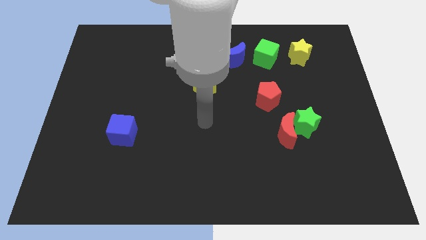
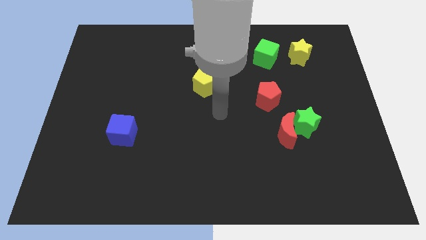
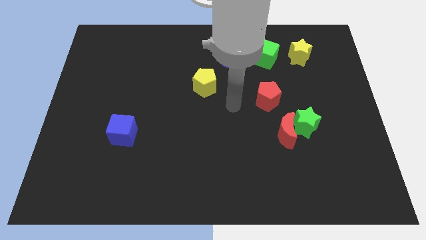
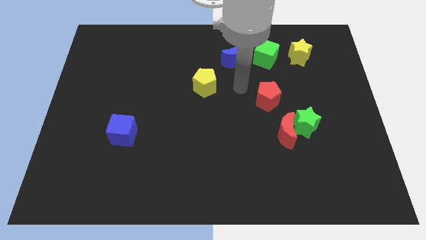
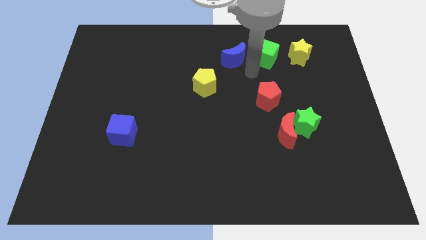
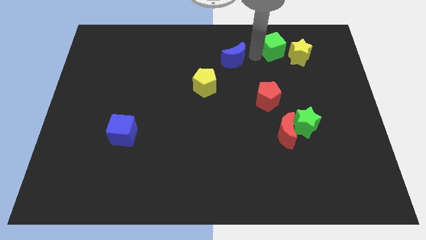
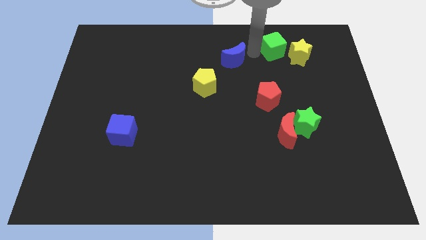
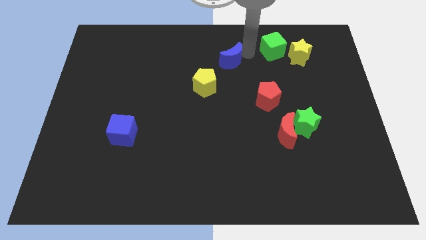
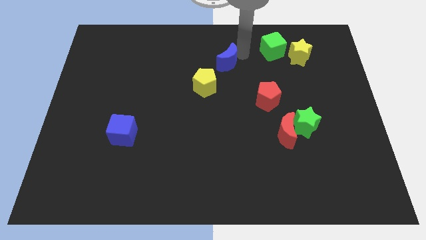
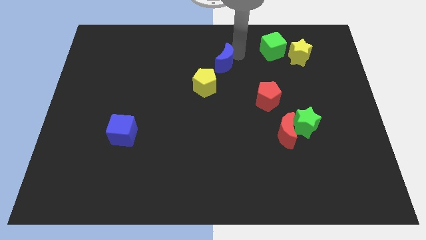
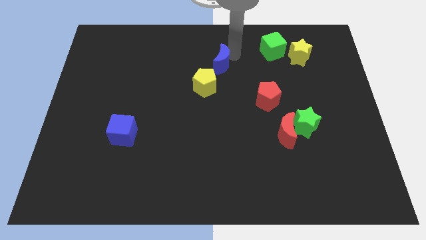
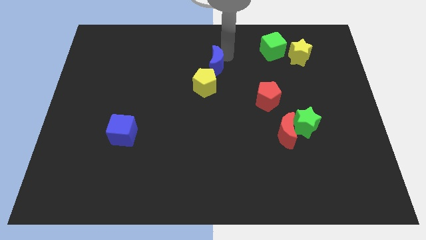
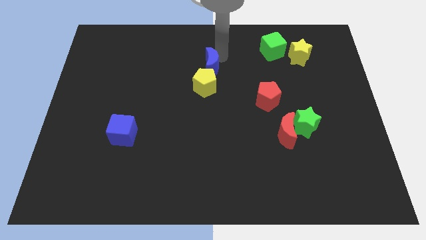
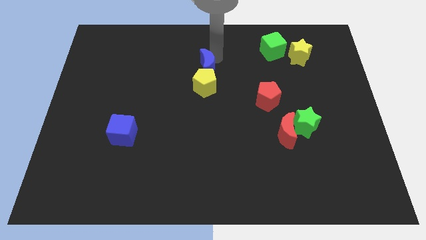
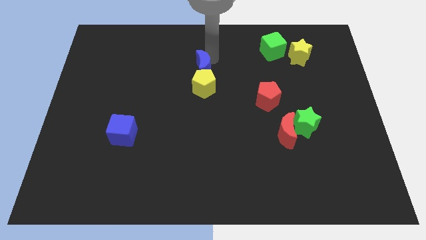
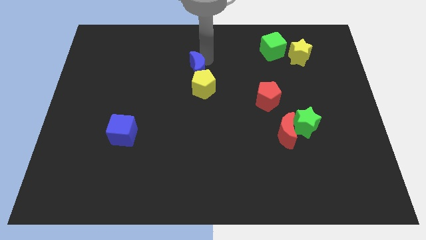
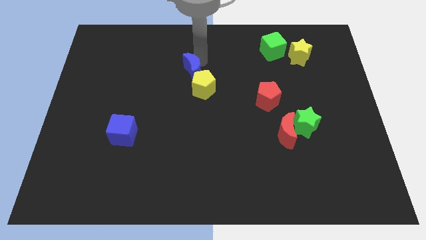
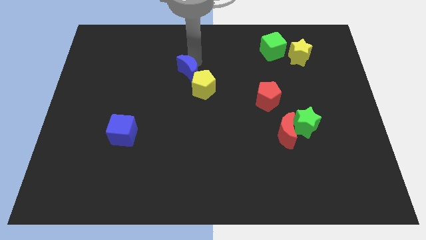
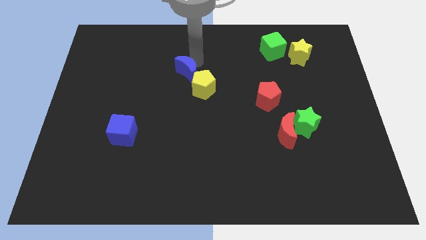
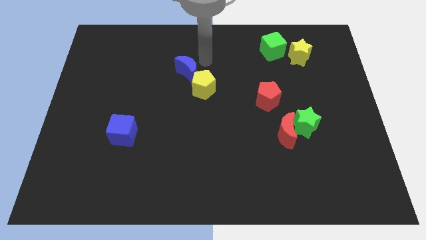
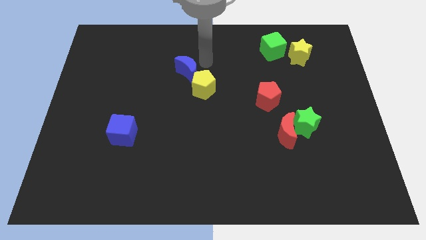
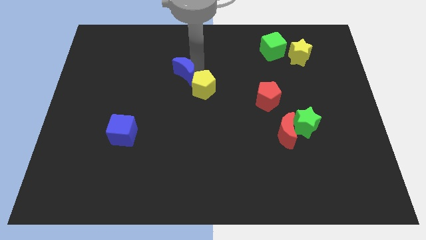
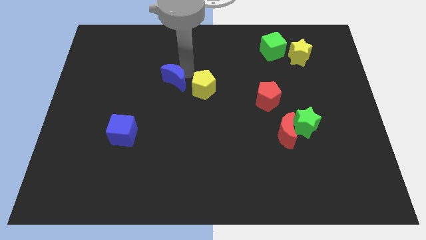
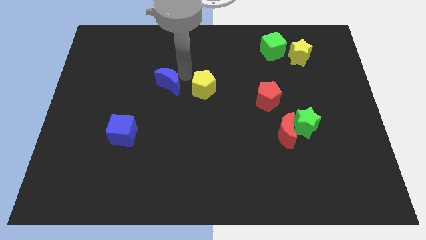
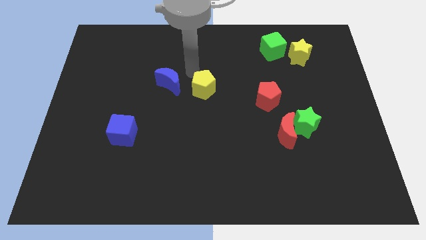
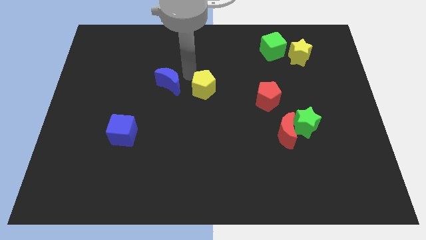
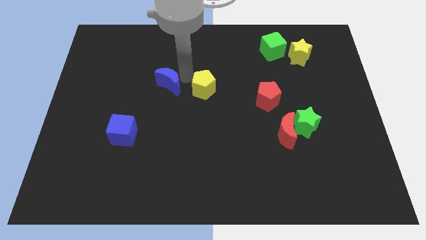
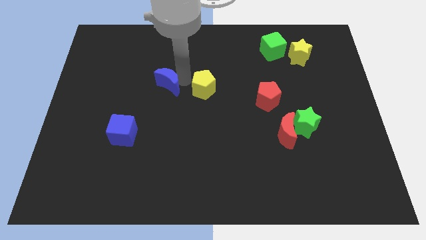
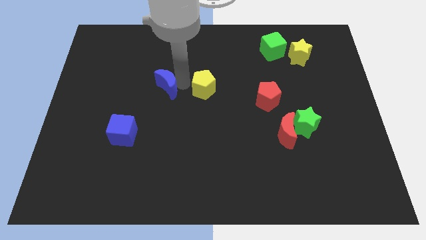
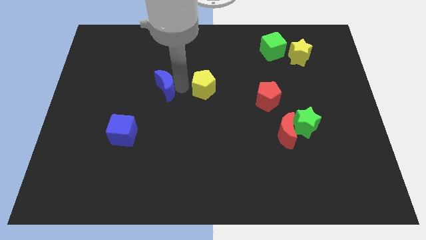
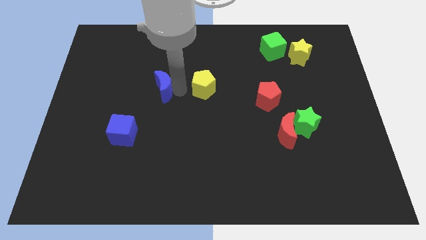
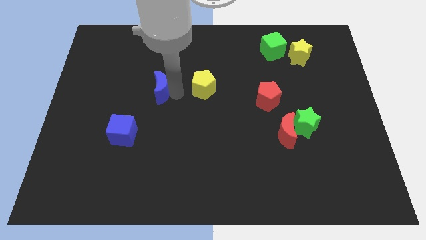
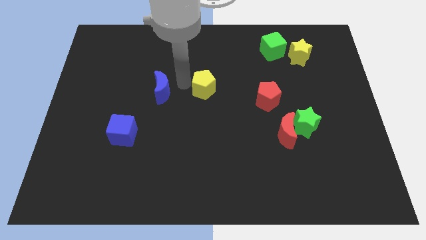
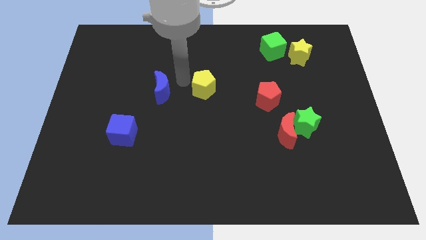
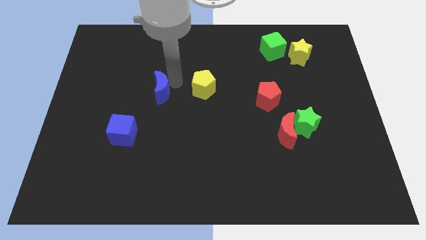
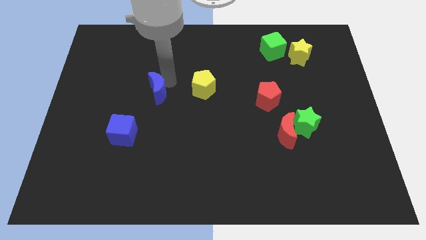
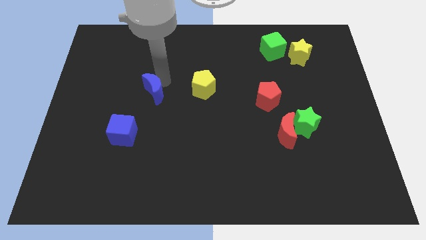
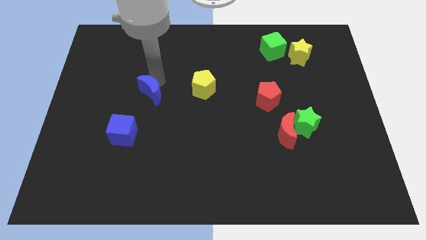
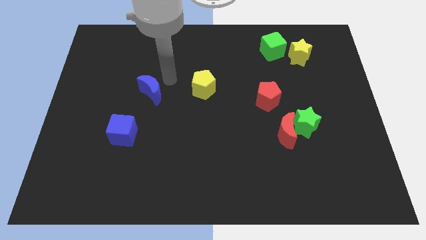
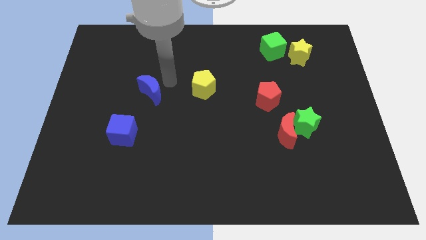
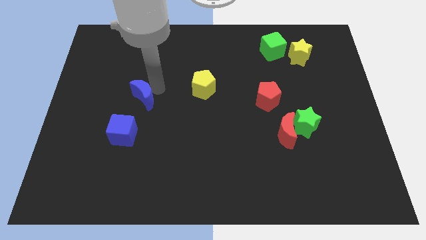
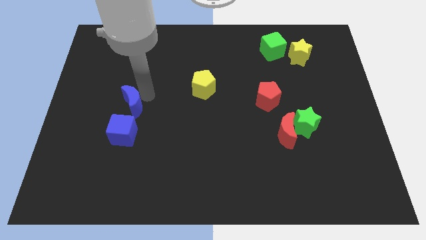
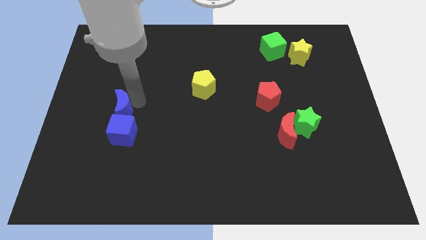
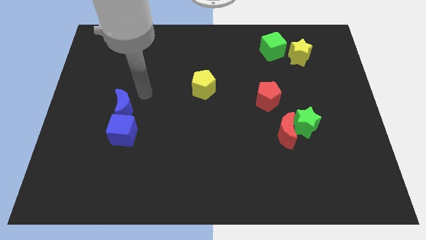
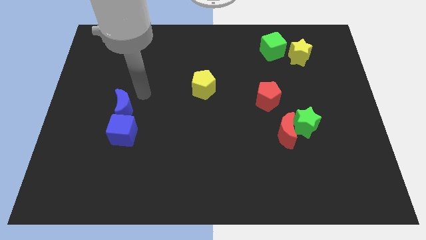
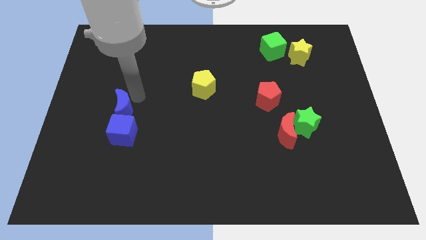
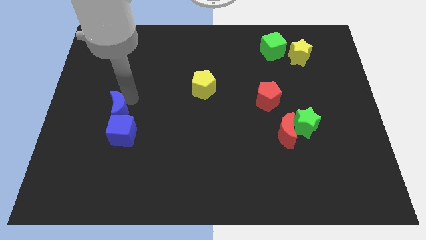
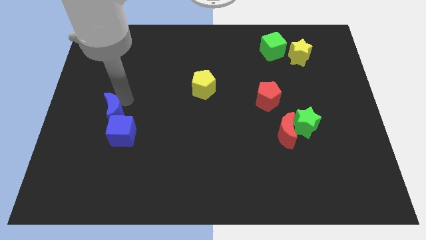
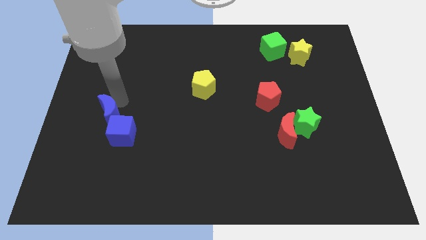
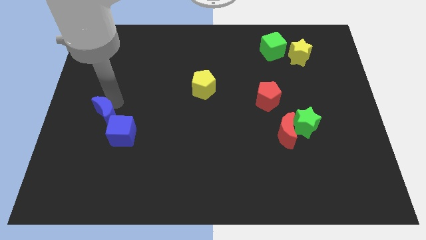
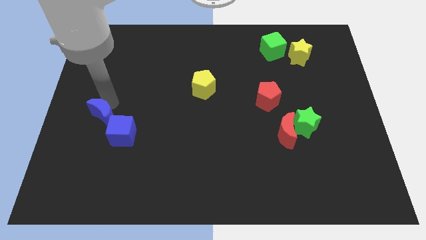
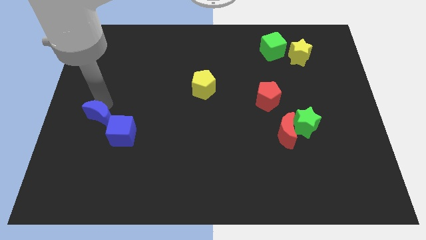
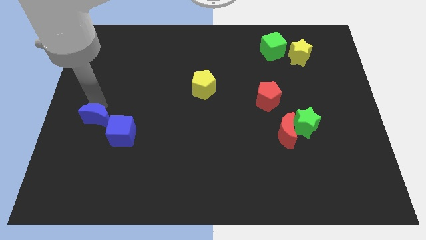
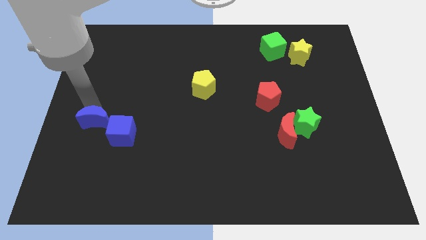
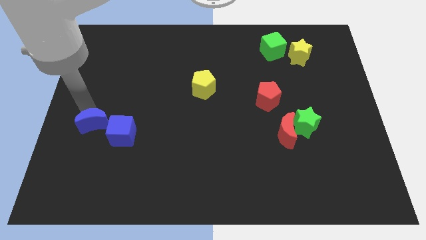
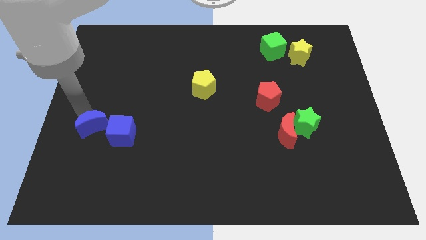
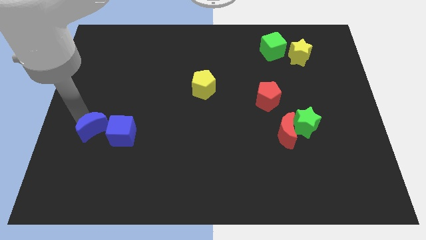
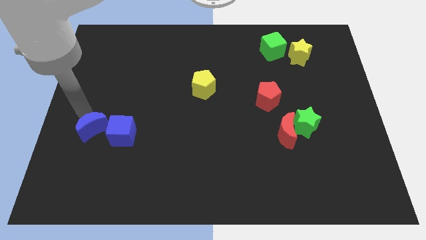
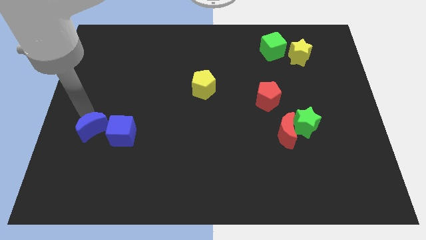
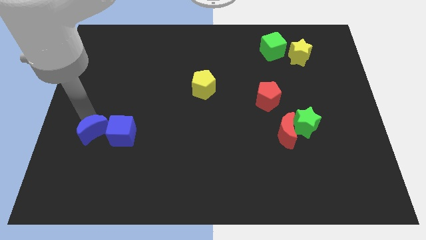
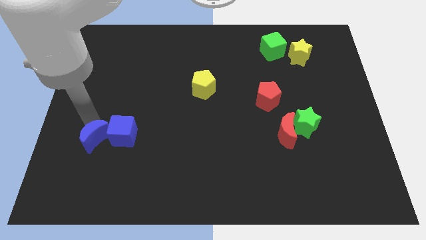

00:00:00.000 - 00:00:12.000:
move the blue moon to the bottom left of the blue cube

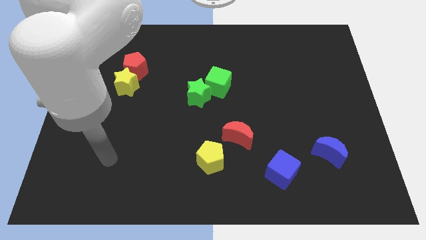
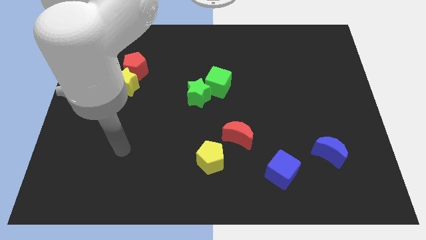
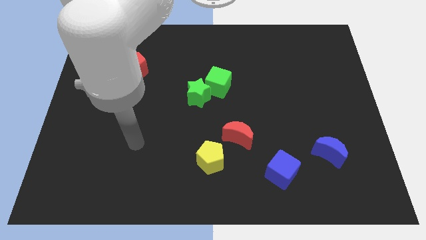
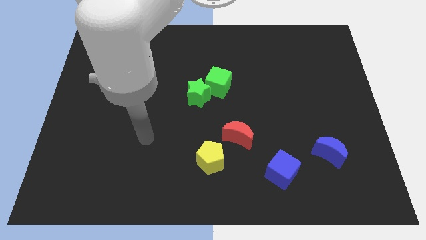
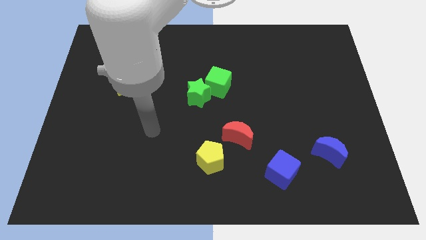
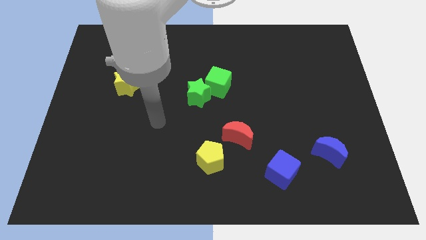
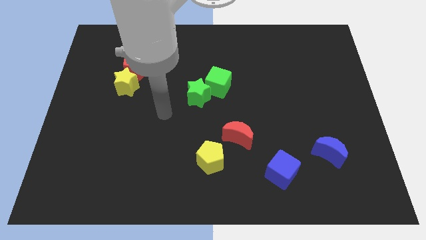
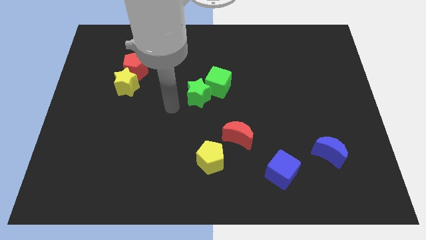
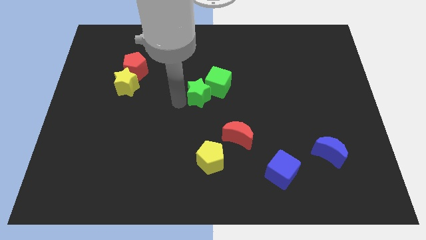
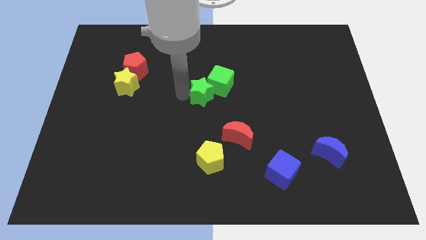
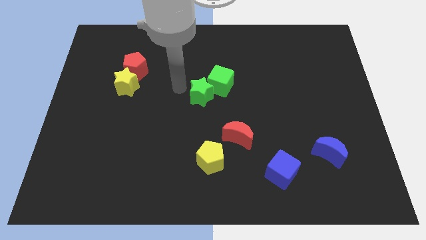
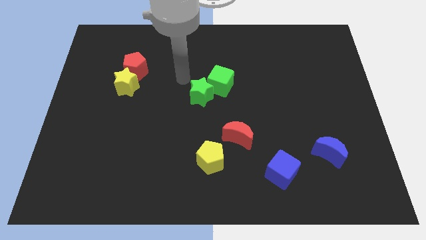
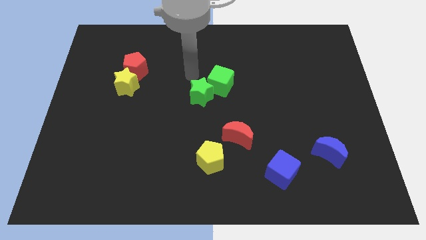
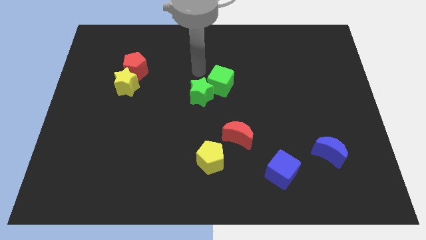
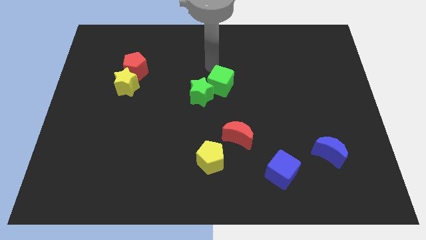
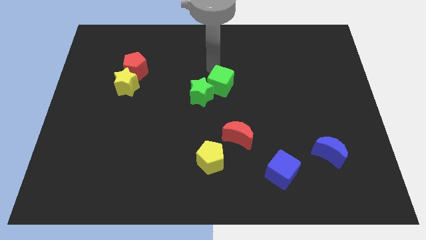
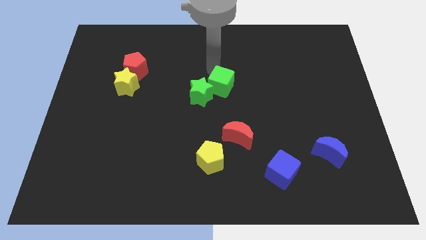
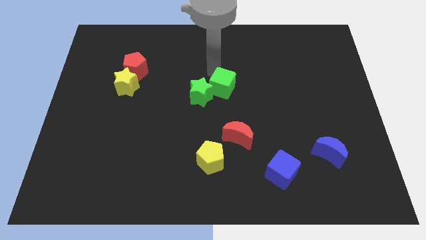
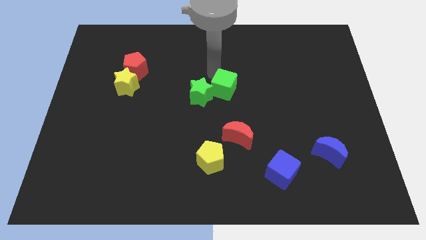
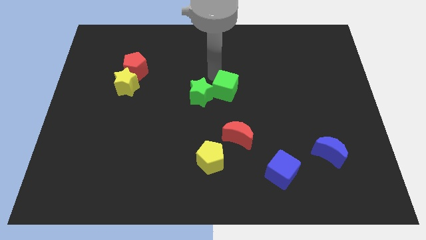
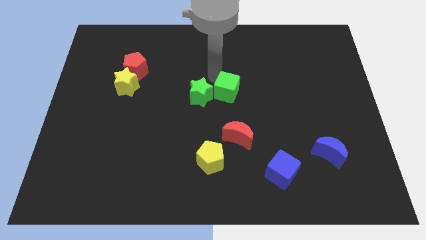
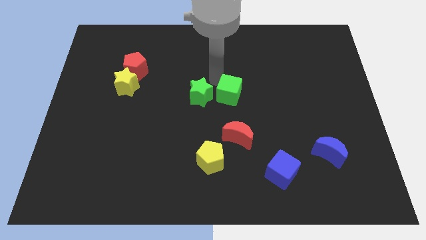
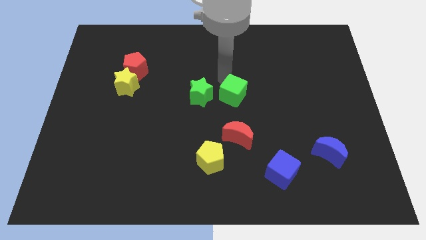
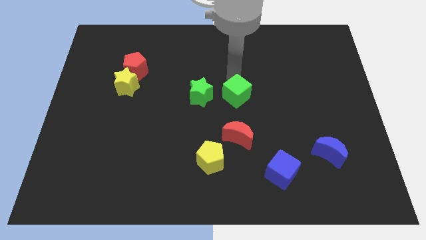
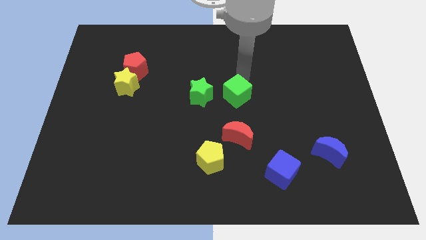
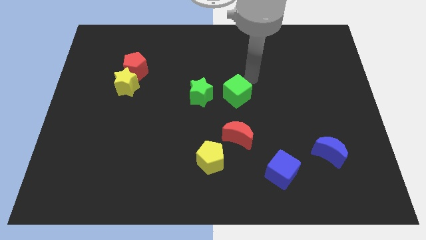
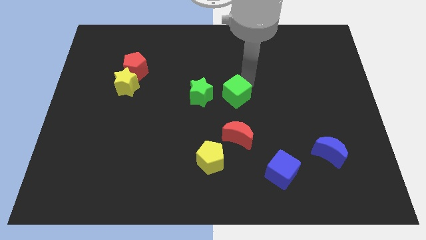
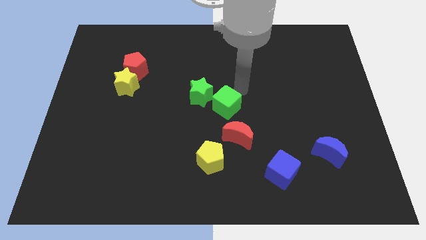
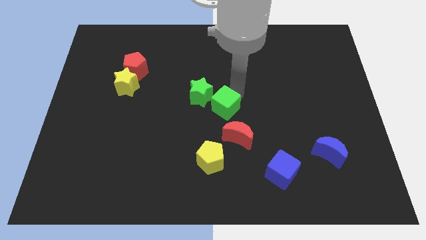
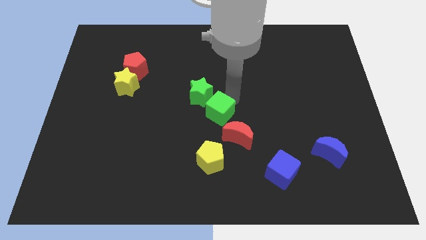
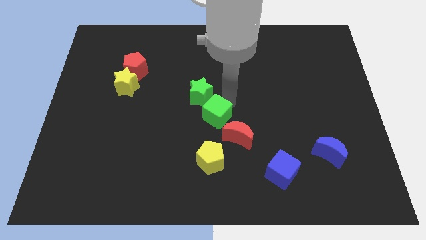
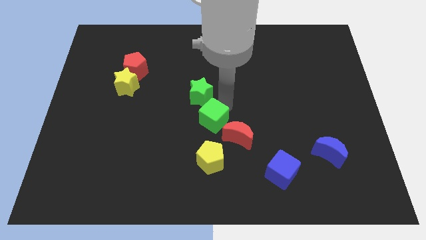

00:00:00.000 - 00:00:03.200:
move the green cube to the left of the red moon
